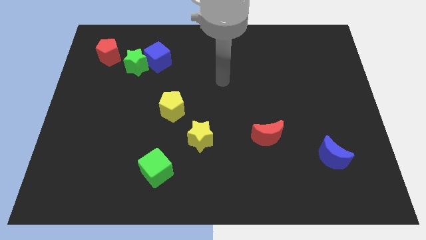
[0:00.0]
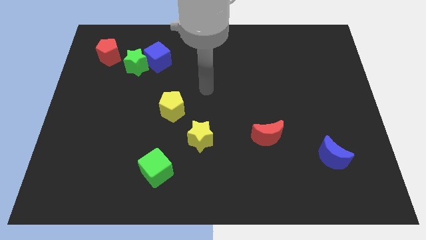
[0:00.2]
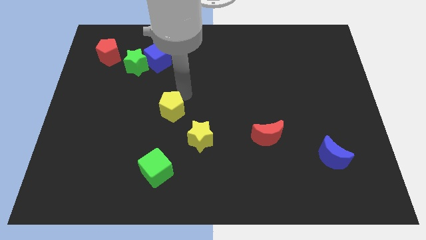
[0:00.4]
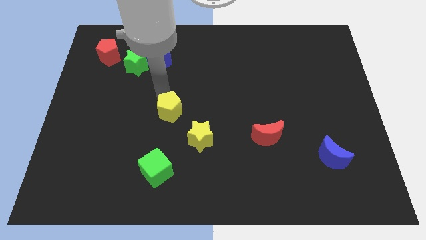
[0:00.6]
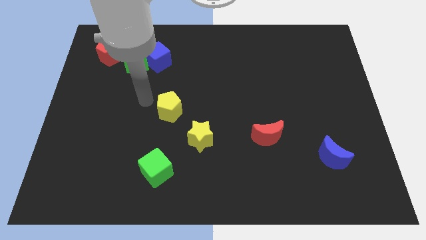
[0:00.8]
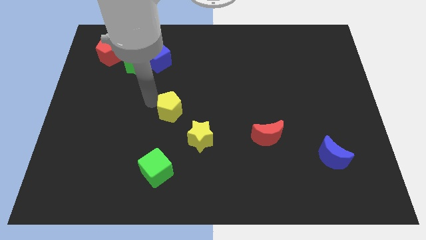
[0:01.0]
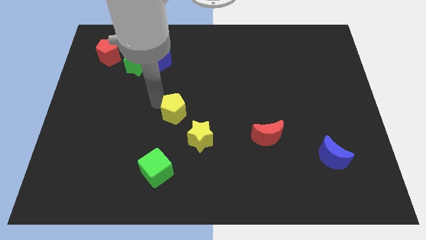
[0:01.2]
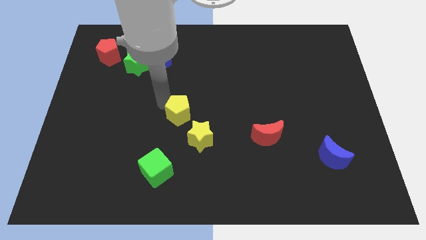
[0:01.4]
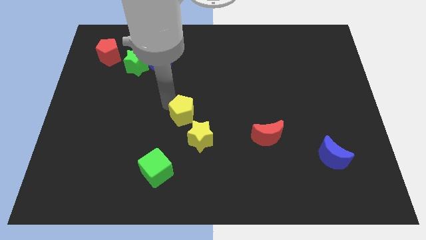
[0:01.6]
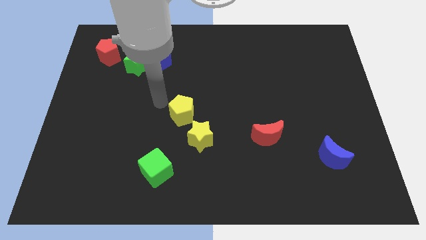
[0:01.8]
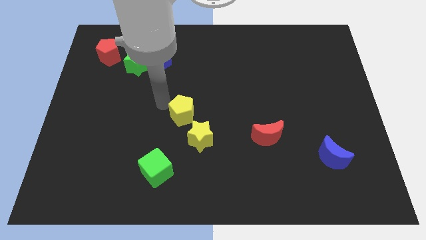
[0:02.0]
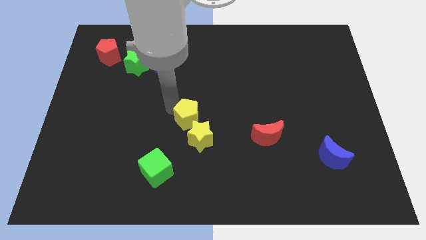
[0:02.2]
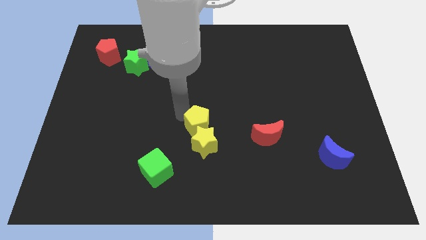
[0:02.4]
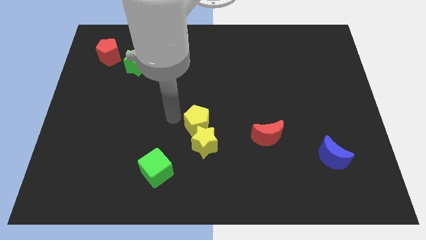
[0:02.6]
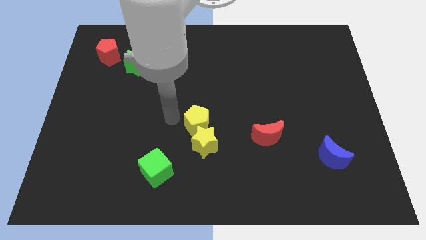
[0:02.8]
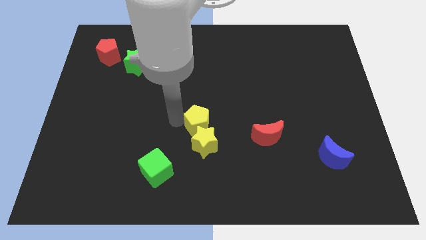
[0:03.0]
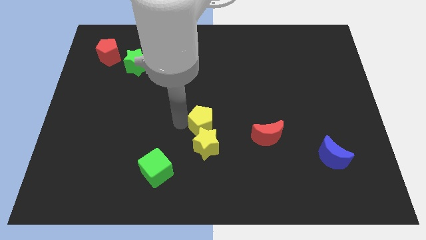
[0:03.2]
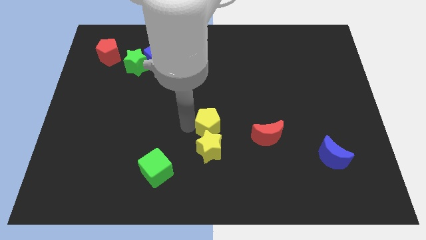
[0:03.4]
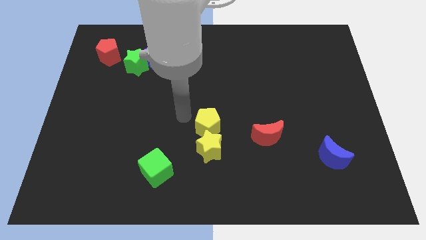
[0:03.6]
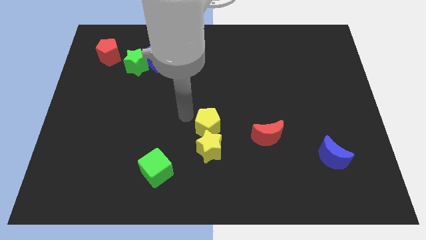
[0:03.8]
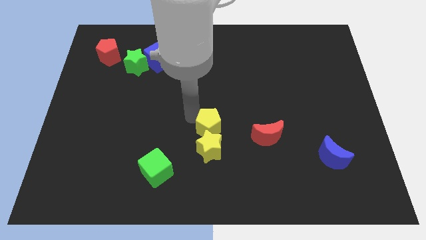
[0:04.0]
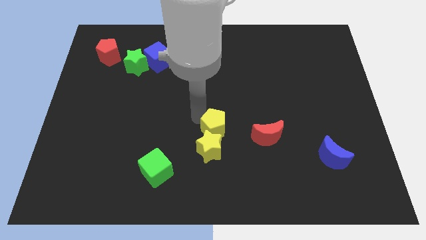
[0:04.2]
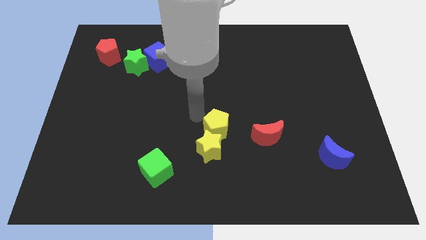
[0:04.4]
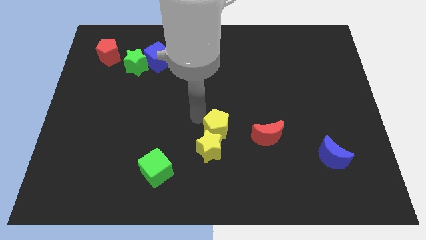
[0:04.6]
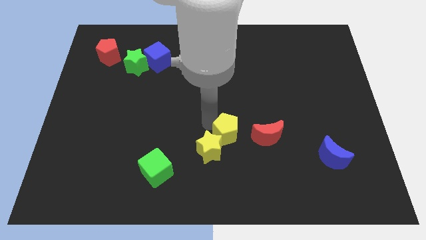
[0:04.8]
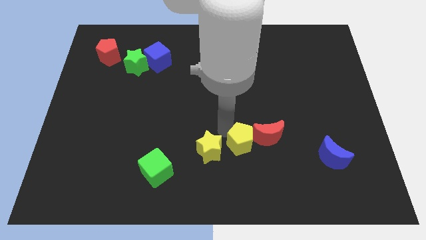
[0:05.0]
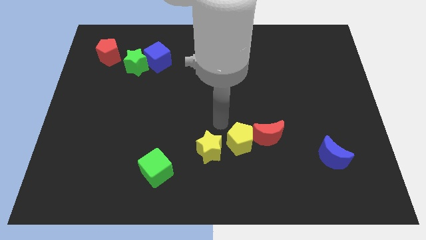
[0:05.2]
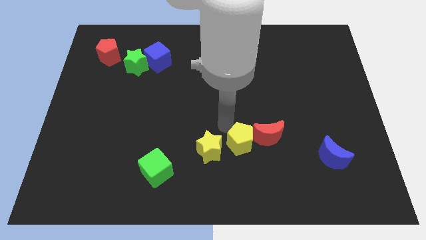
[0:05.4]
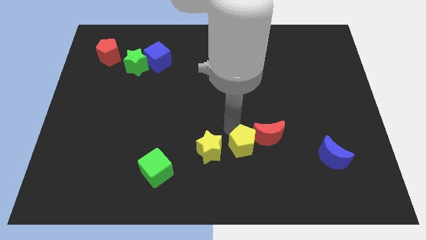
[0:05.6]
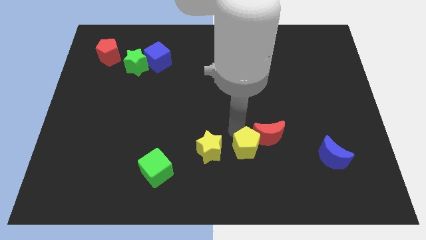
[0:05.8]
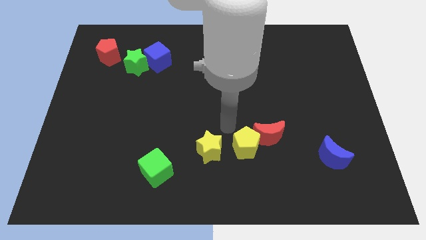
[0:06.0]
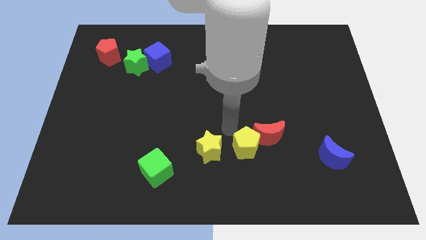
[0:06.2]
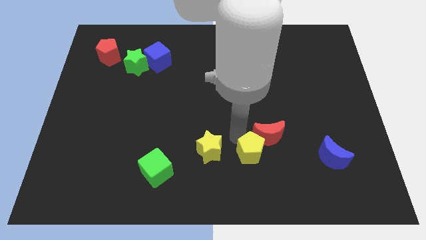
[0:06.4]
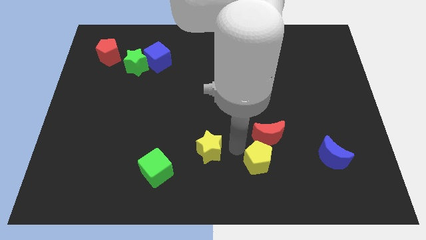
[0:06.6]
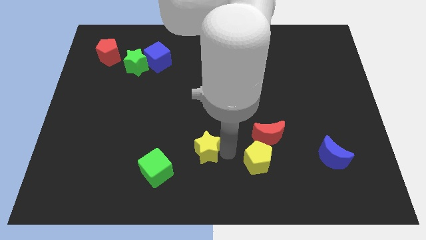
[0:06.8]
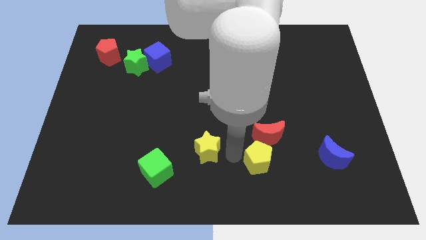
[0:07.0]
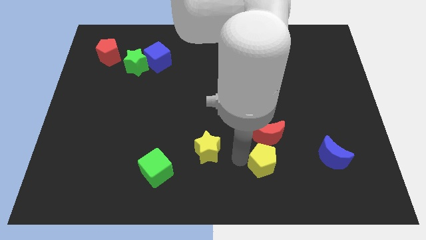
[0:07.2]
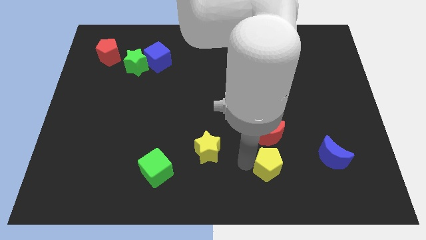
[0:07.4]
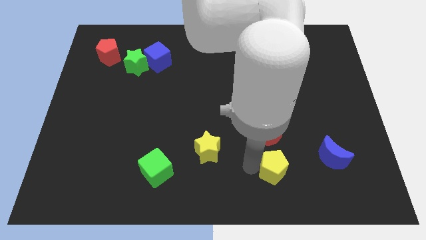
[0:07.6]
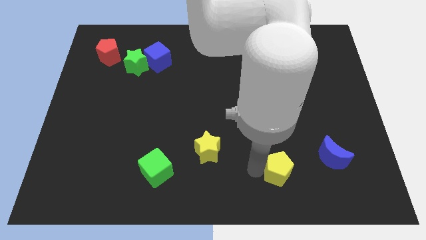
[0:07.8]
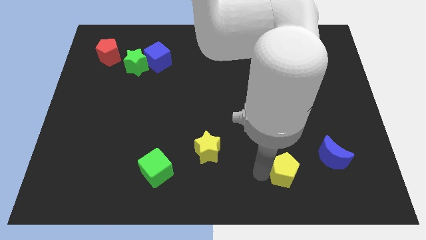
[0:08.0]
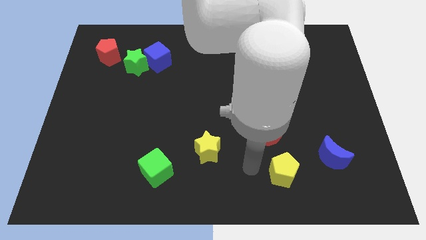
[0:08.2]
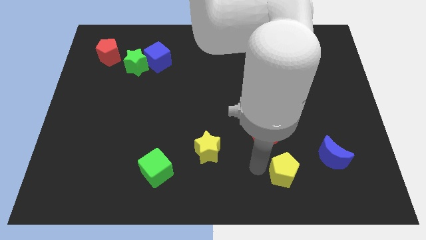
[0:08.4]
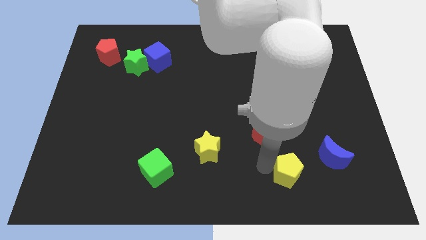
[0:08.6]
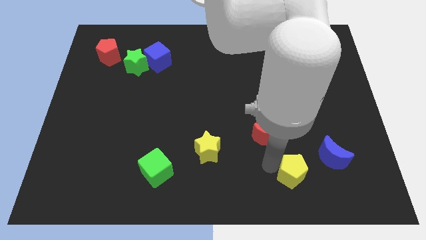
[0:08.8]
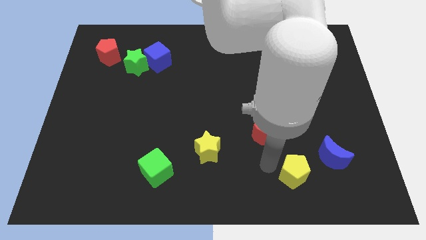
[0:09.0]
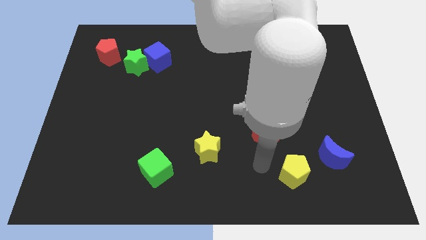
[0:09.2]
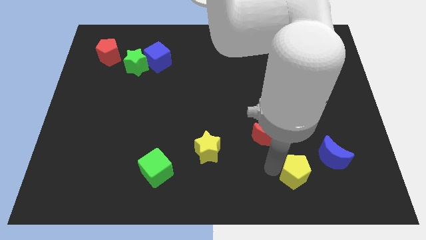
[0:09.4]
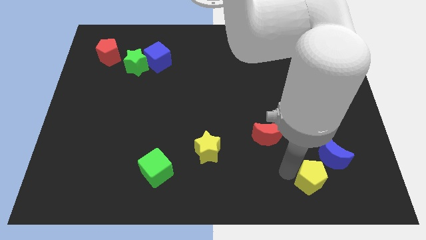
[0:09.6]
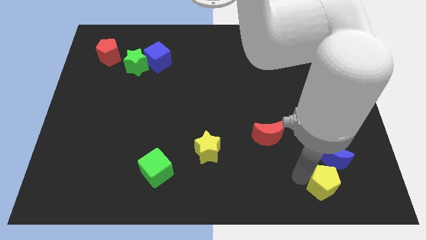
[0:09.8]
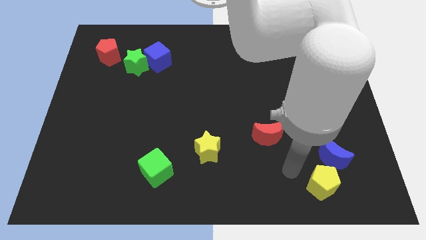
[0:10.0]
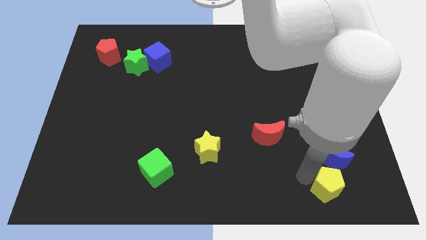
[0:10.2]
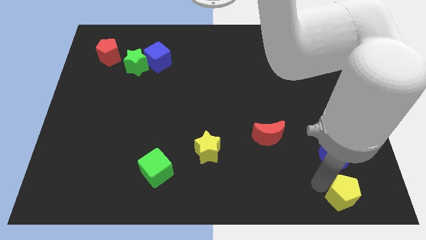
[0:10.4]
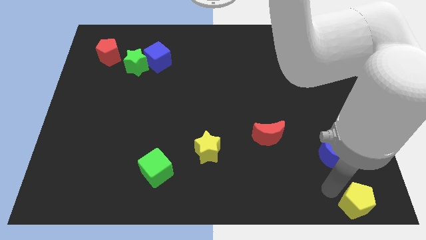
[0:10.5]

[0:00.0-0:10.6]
move the yellow pentagon to the bottom right of the board
